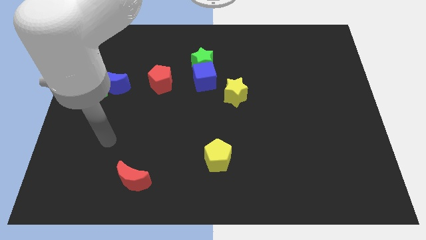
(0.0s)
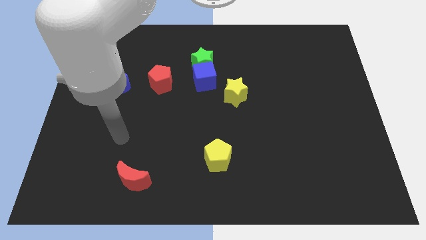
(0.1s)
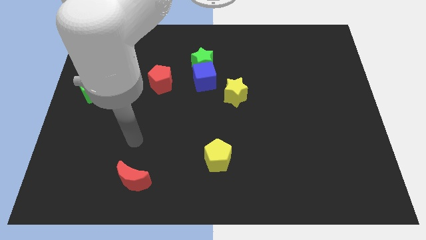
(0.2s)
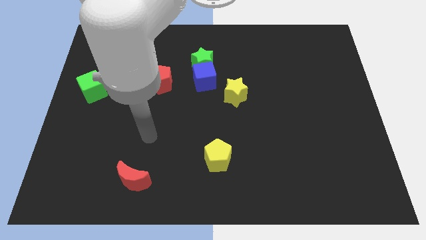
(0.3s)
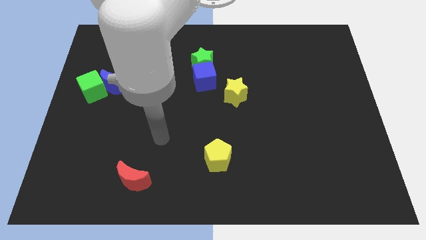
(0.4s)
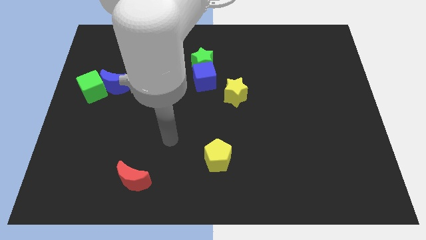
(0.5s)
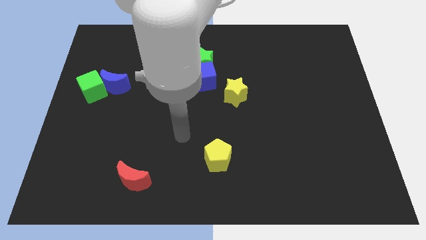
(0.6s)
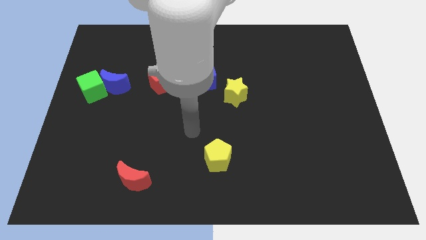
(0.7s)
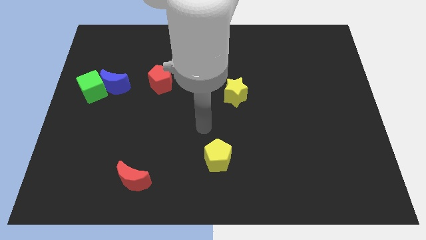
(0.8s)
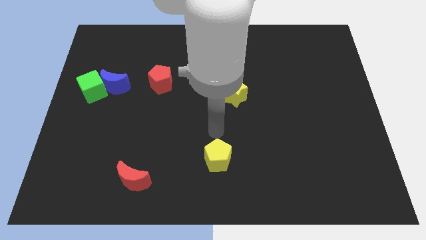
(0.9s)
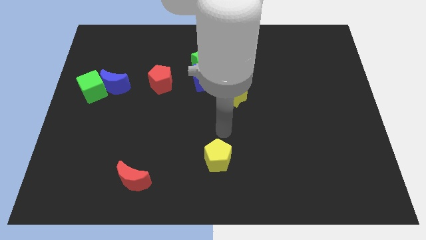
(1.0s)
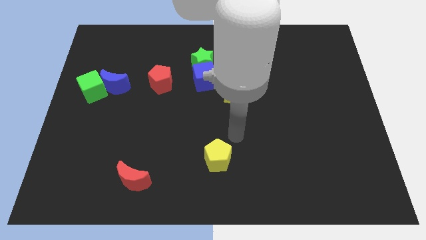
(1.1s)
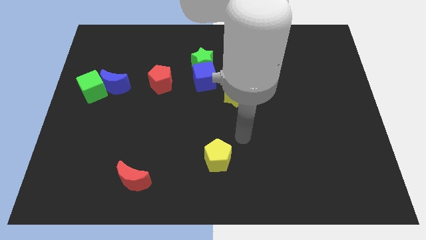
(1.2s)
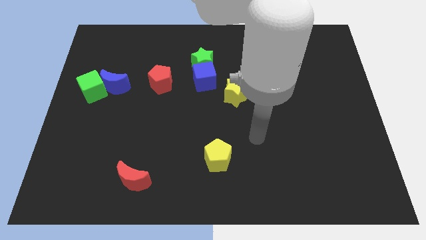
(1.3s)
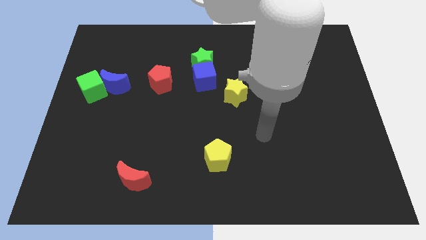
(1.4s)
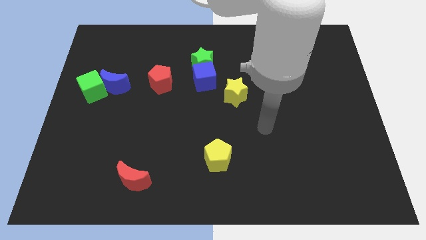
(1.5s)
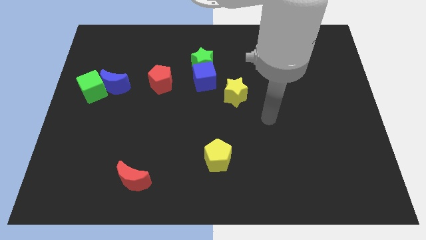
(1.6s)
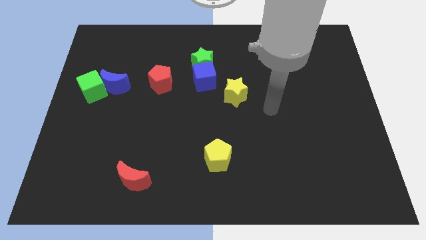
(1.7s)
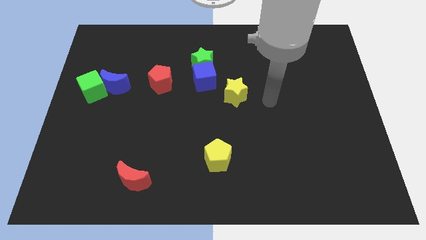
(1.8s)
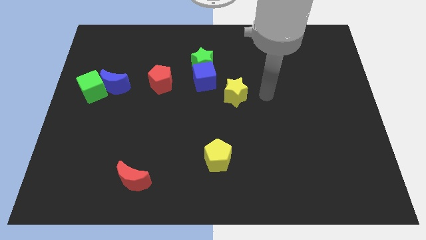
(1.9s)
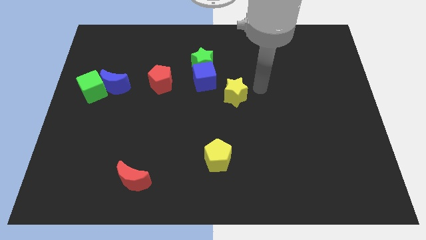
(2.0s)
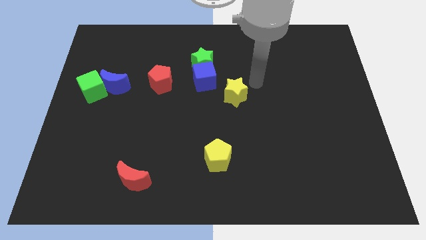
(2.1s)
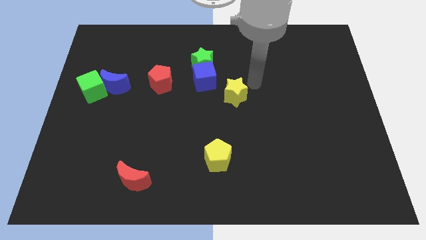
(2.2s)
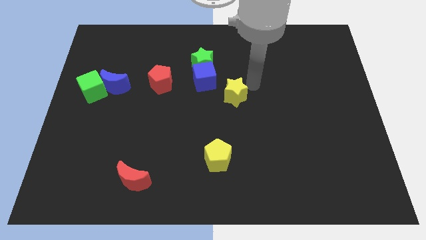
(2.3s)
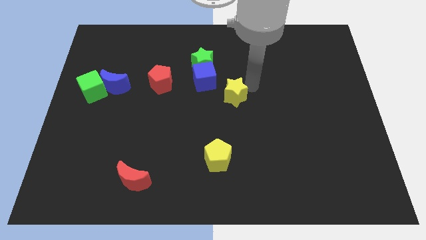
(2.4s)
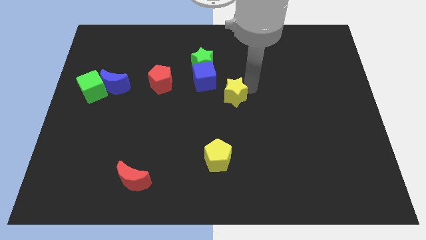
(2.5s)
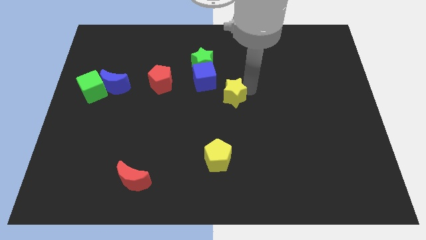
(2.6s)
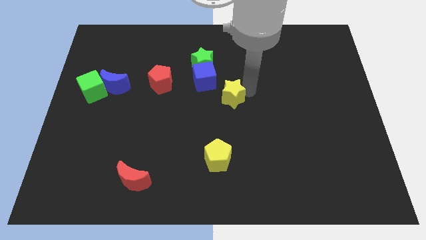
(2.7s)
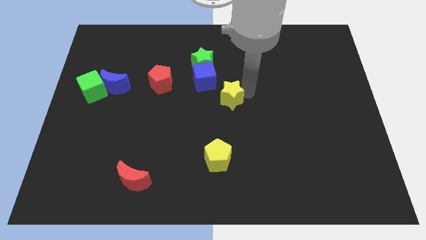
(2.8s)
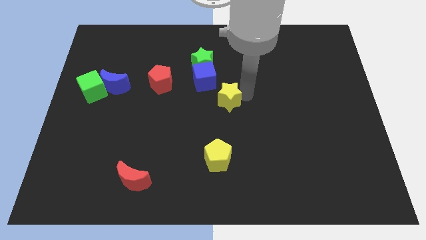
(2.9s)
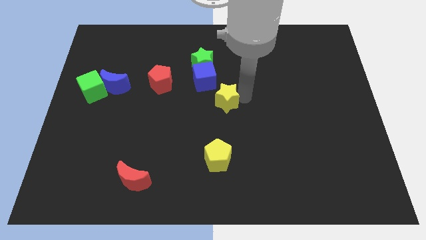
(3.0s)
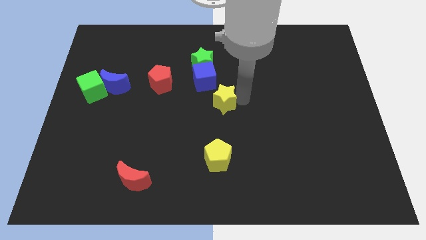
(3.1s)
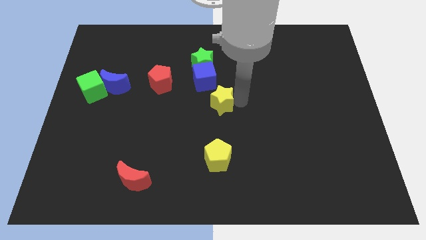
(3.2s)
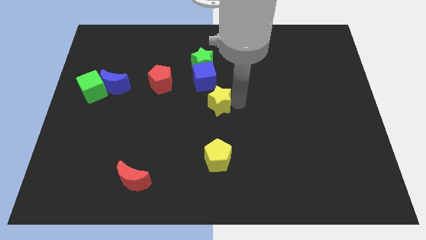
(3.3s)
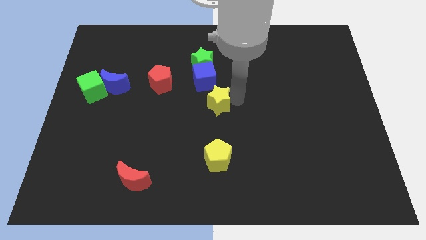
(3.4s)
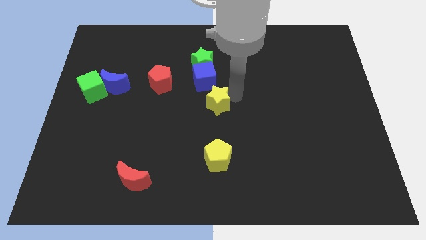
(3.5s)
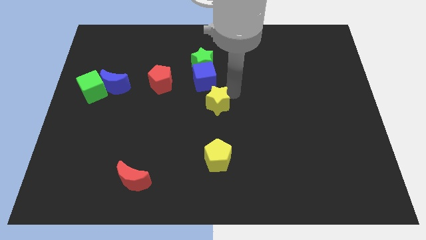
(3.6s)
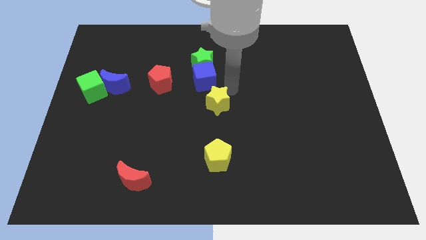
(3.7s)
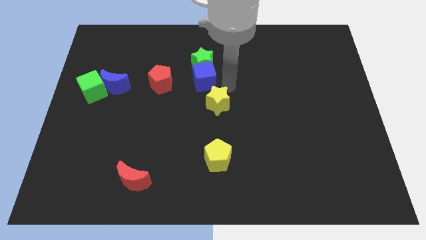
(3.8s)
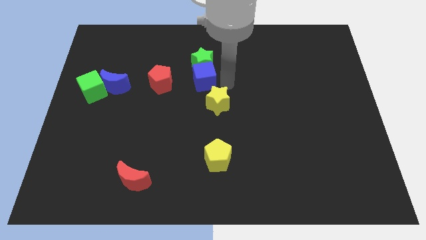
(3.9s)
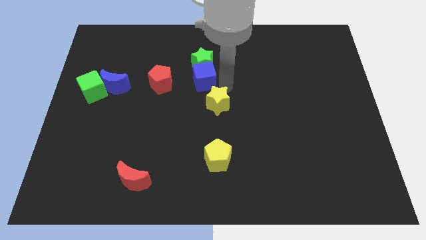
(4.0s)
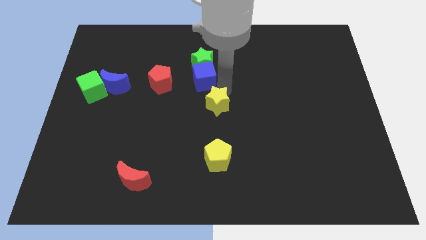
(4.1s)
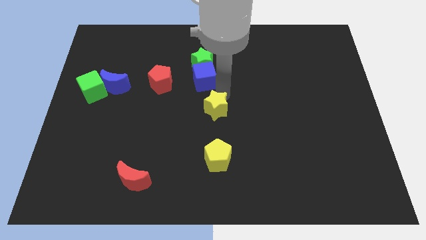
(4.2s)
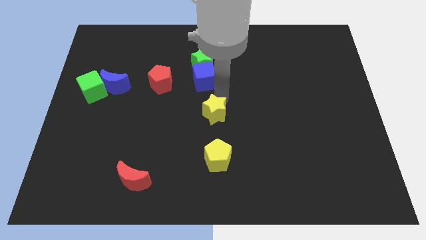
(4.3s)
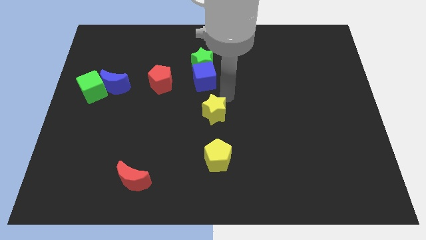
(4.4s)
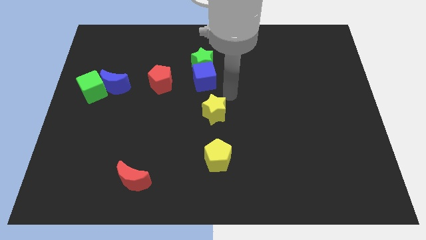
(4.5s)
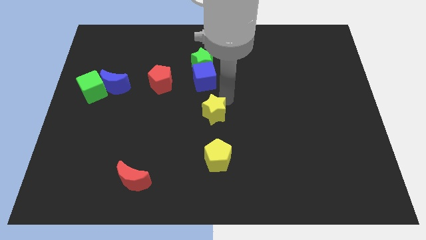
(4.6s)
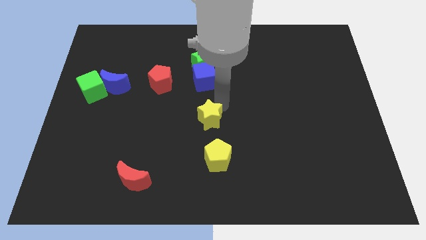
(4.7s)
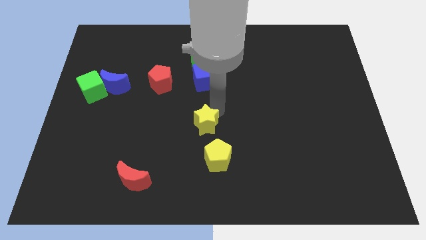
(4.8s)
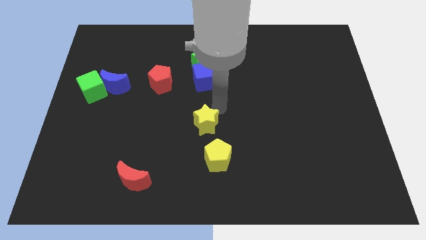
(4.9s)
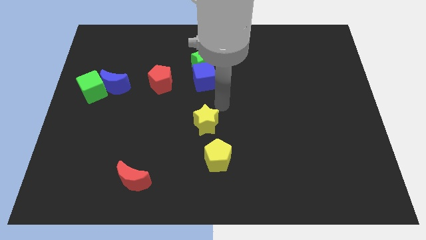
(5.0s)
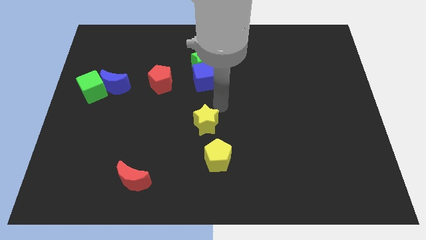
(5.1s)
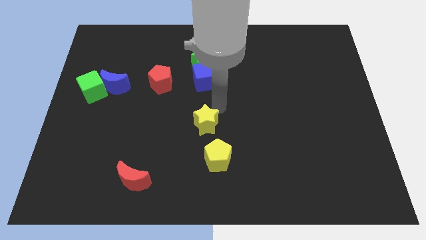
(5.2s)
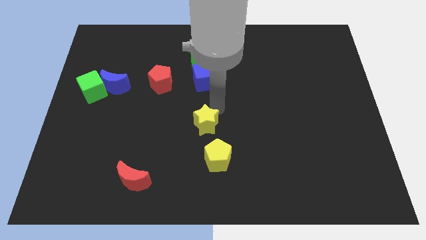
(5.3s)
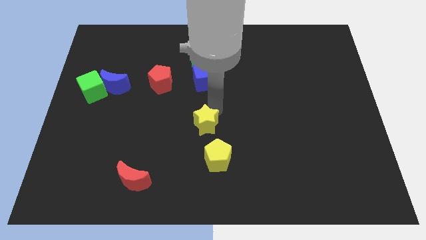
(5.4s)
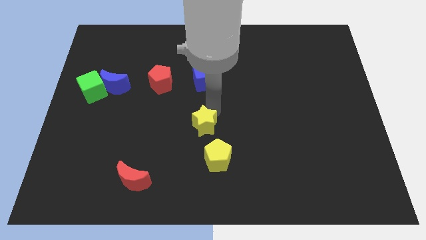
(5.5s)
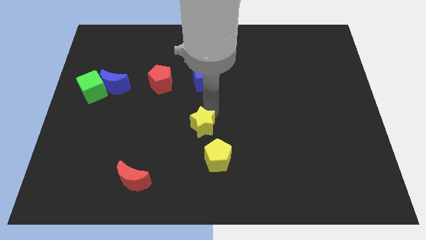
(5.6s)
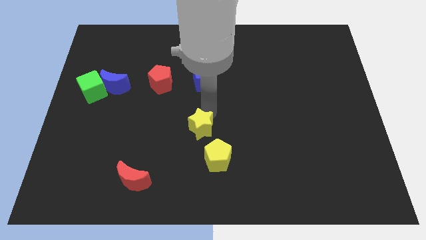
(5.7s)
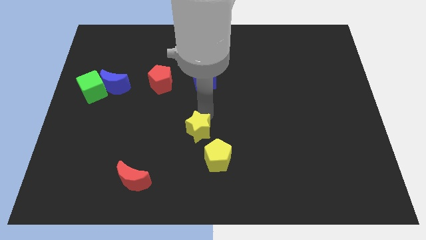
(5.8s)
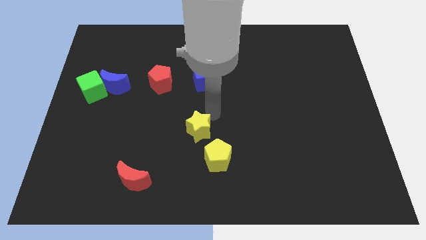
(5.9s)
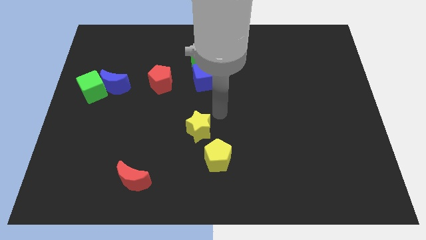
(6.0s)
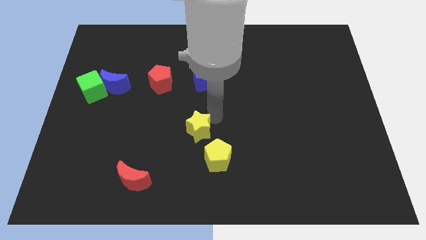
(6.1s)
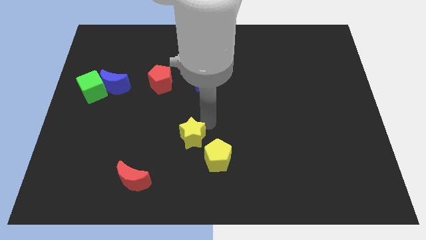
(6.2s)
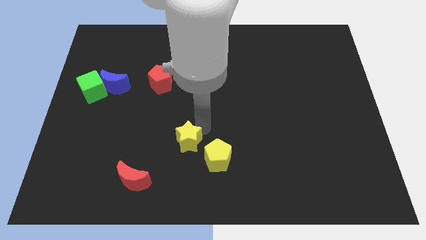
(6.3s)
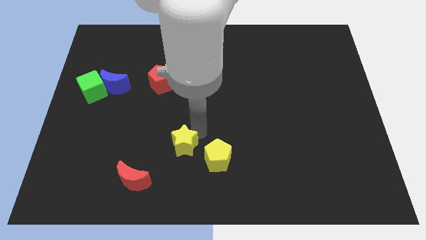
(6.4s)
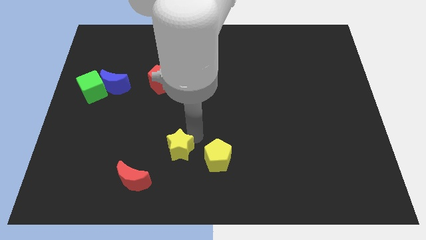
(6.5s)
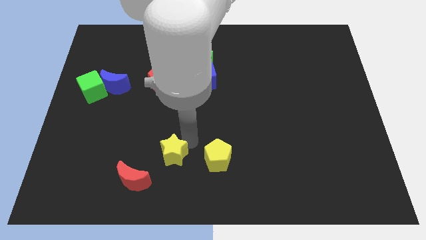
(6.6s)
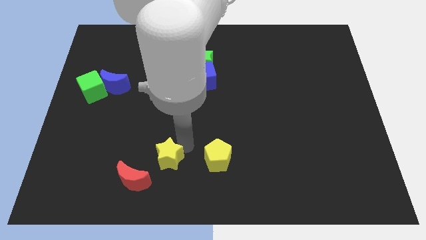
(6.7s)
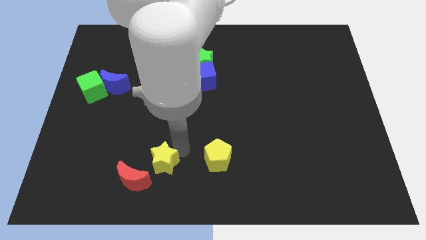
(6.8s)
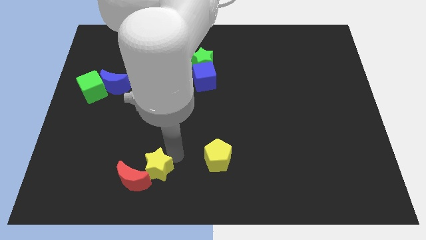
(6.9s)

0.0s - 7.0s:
put the yellow star to the red moon

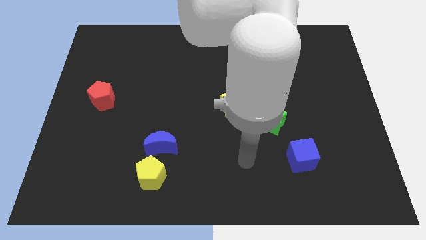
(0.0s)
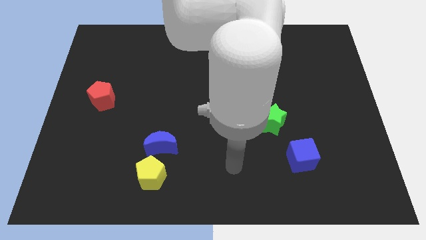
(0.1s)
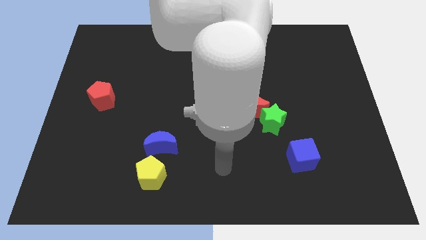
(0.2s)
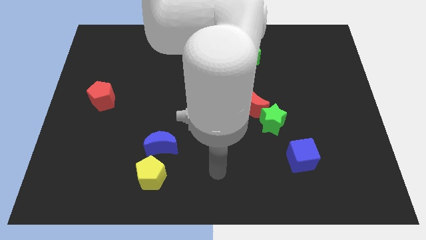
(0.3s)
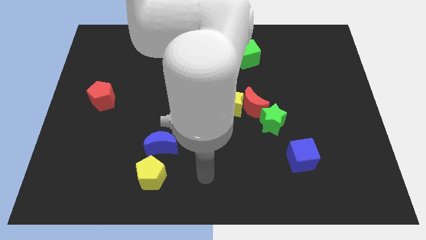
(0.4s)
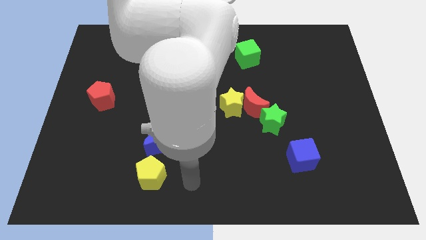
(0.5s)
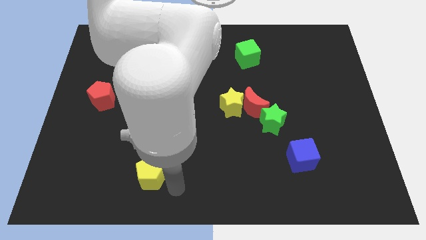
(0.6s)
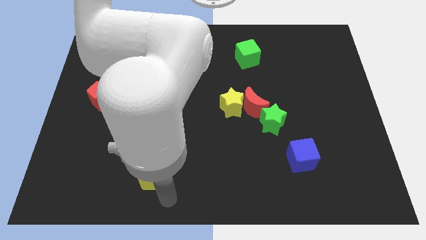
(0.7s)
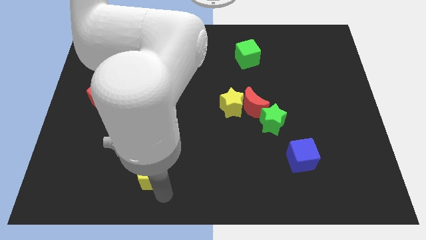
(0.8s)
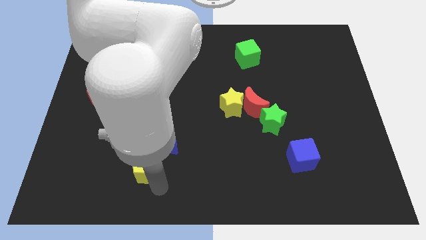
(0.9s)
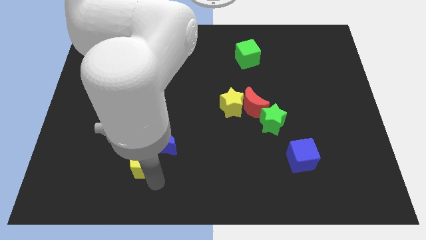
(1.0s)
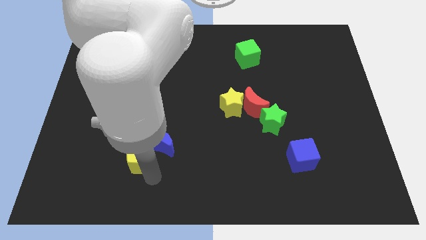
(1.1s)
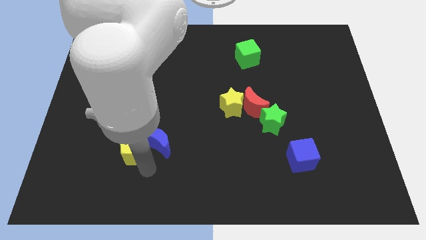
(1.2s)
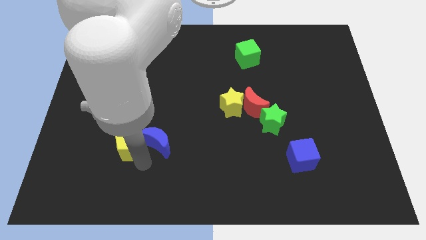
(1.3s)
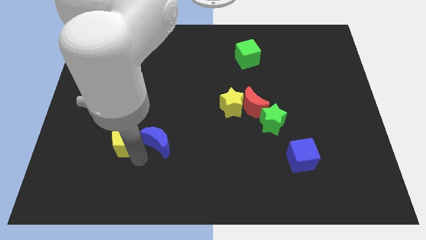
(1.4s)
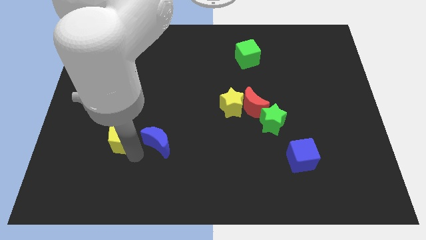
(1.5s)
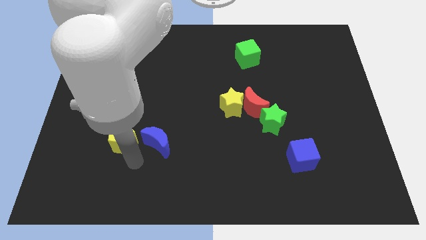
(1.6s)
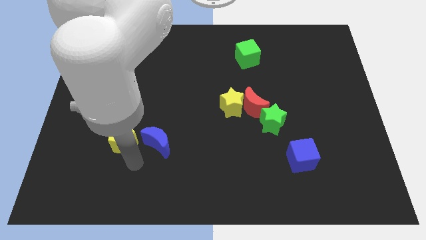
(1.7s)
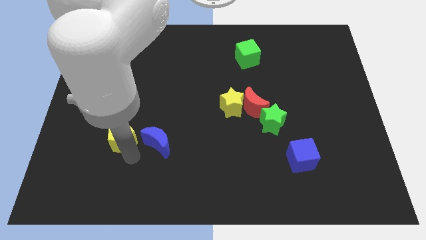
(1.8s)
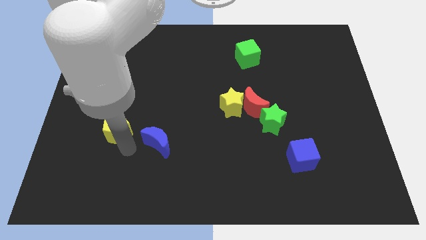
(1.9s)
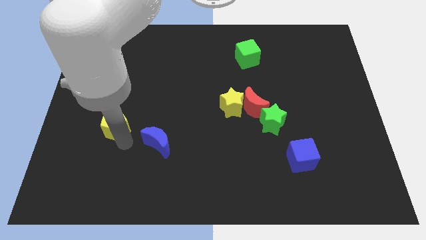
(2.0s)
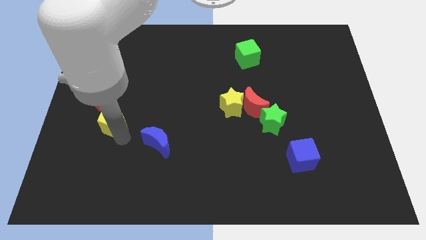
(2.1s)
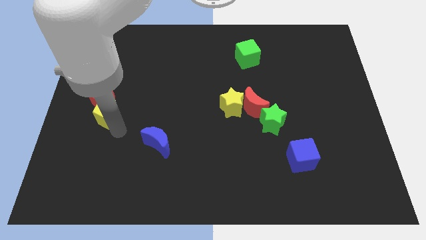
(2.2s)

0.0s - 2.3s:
put the yellow pentagon to the red pentagon
